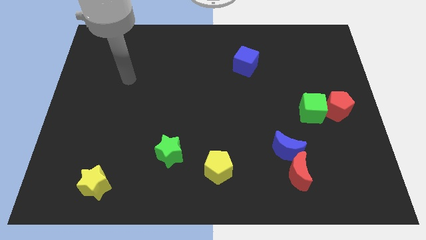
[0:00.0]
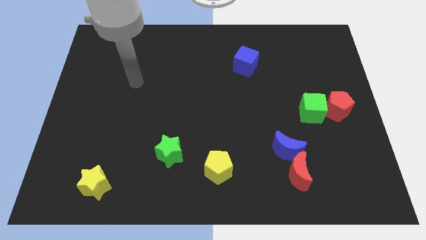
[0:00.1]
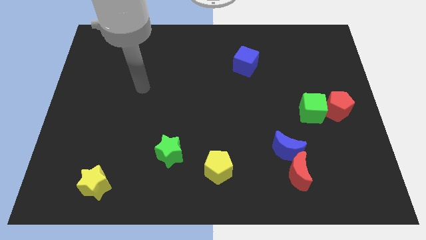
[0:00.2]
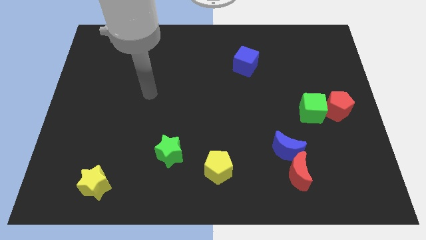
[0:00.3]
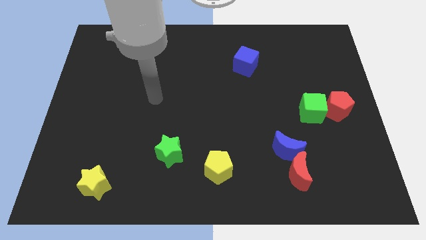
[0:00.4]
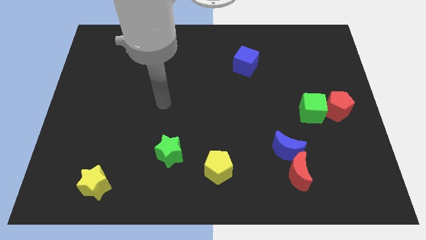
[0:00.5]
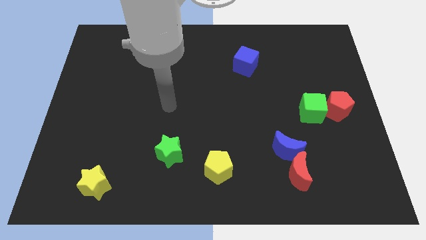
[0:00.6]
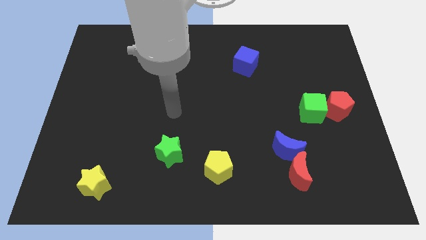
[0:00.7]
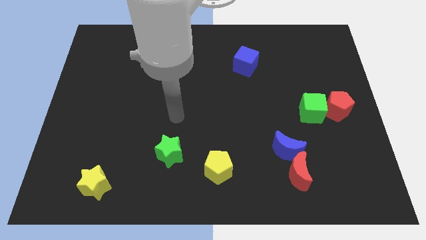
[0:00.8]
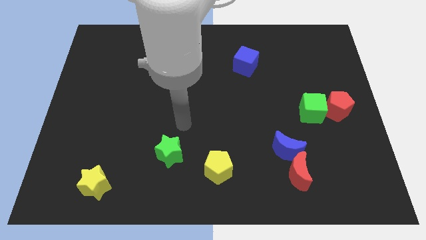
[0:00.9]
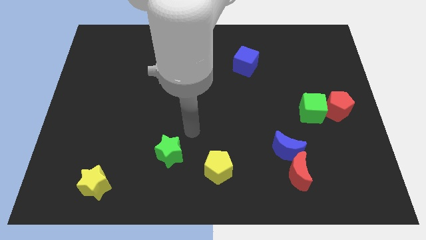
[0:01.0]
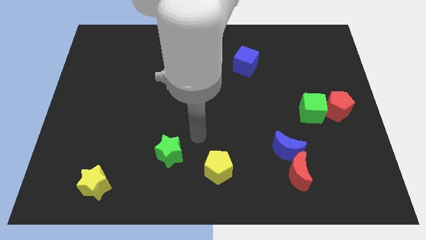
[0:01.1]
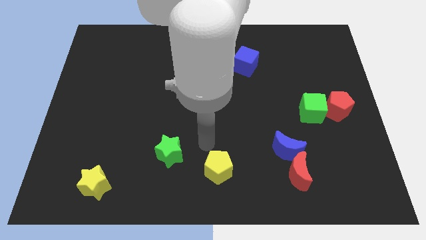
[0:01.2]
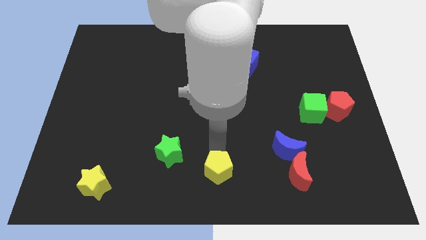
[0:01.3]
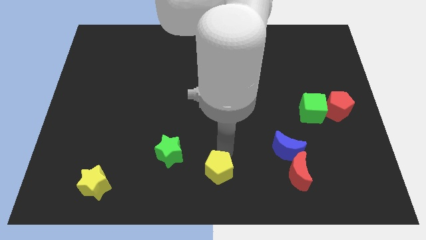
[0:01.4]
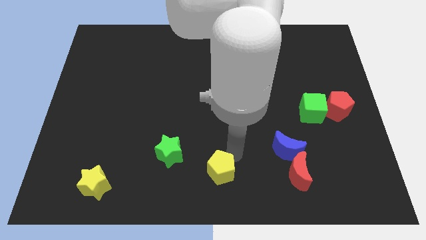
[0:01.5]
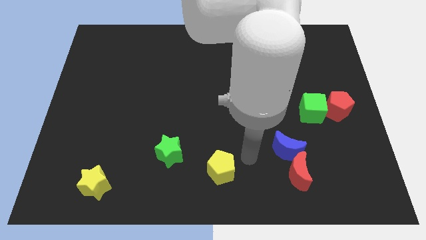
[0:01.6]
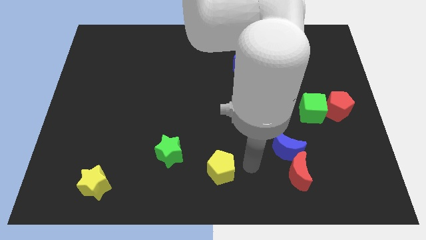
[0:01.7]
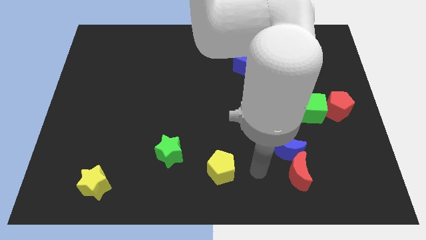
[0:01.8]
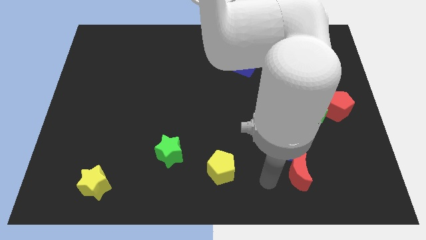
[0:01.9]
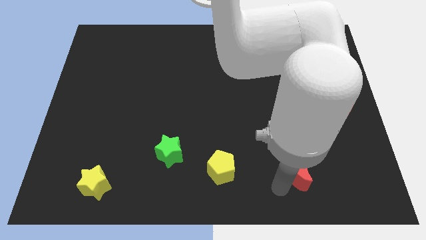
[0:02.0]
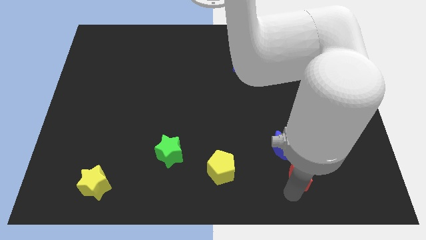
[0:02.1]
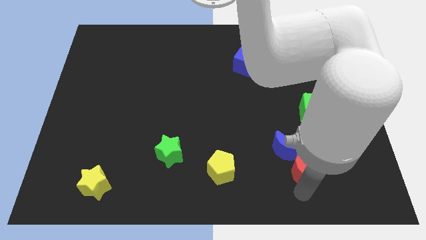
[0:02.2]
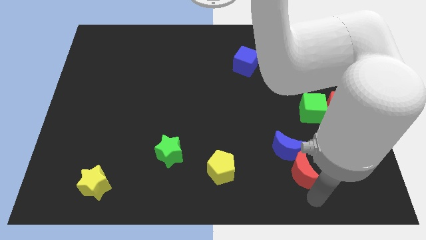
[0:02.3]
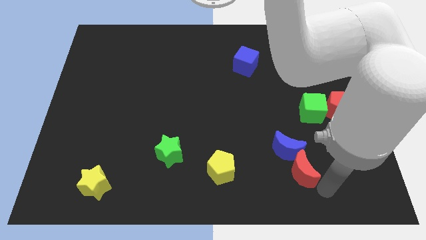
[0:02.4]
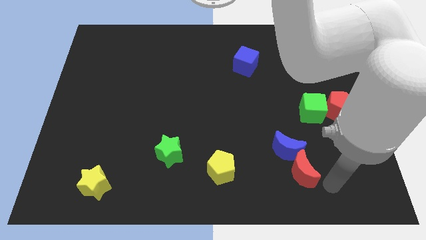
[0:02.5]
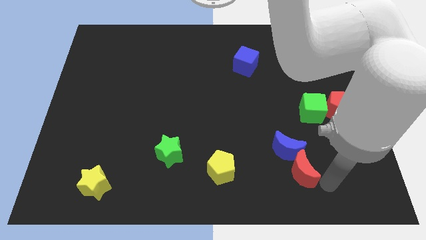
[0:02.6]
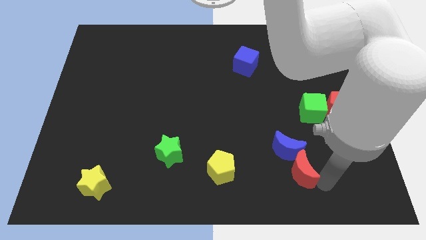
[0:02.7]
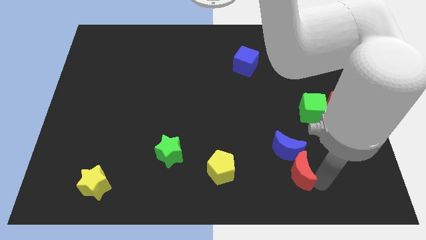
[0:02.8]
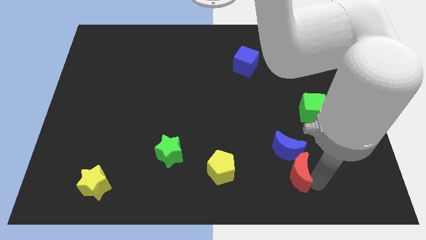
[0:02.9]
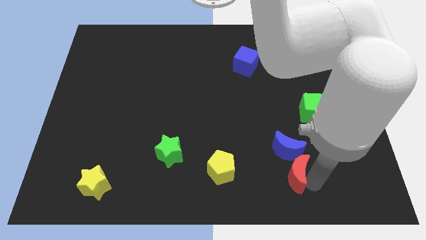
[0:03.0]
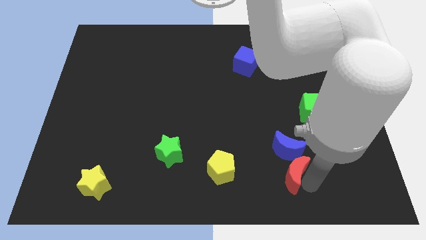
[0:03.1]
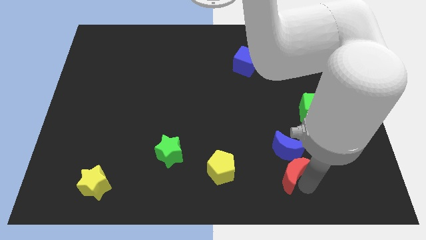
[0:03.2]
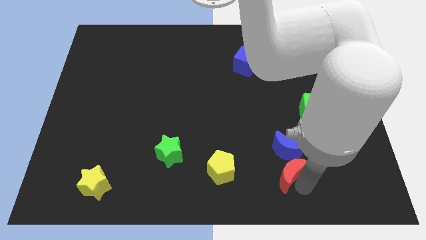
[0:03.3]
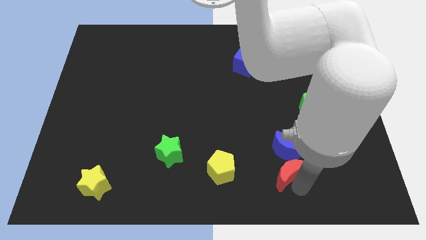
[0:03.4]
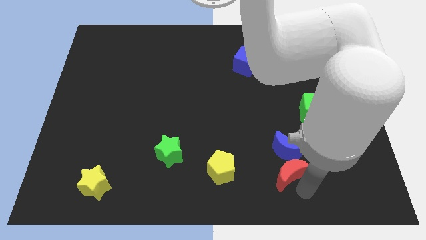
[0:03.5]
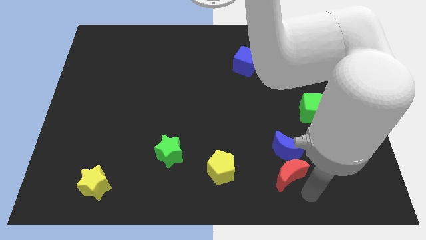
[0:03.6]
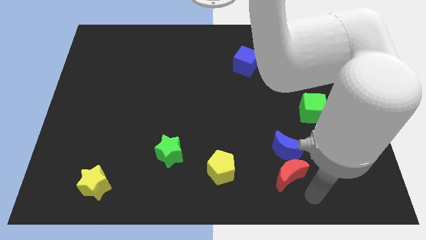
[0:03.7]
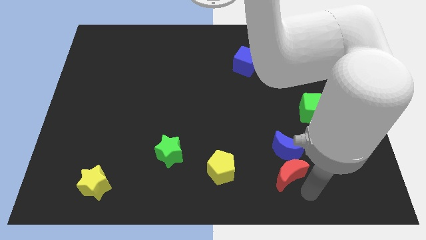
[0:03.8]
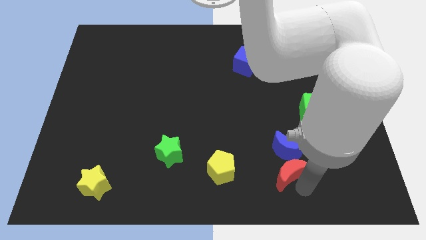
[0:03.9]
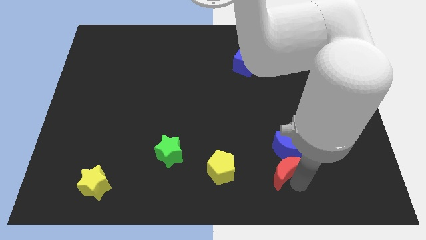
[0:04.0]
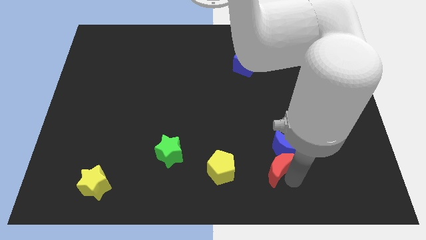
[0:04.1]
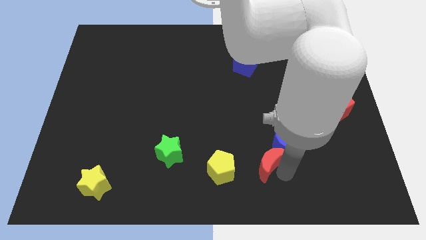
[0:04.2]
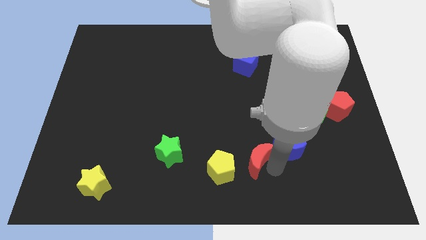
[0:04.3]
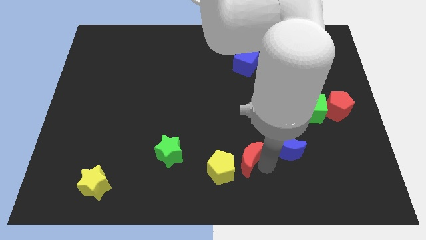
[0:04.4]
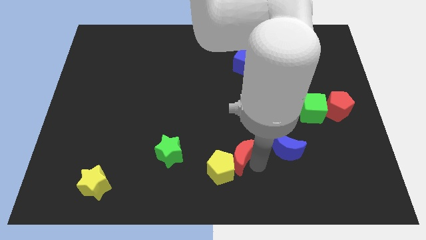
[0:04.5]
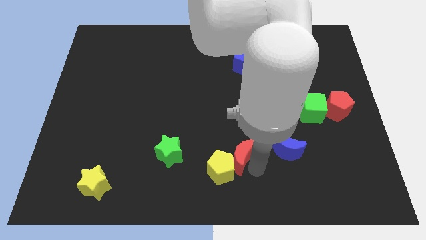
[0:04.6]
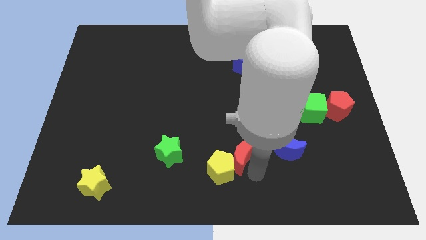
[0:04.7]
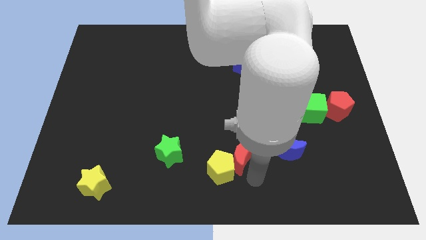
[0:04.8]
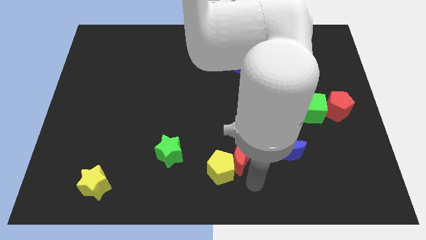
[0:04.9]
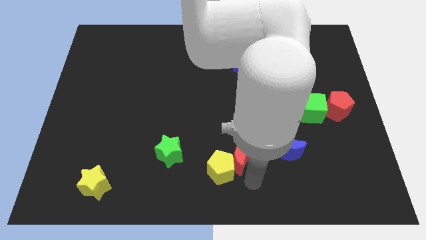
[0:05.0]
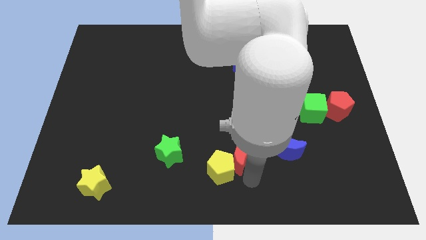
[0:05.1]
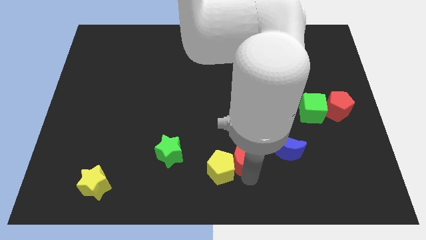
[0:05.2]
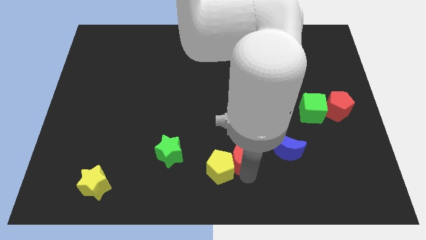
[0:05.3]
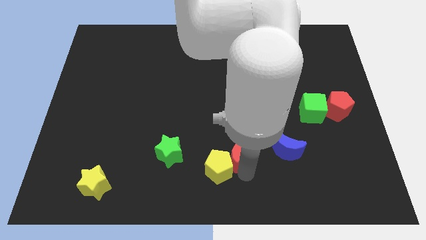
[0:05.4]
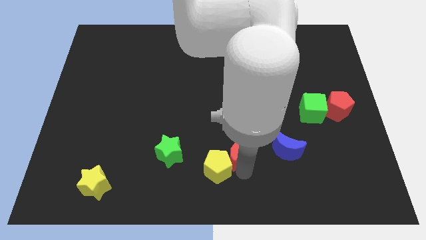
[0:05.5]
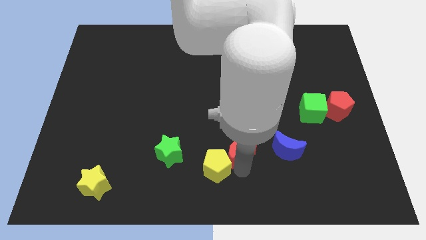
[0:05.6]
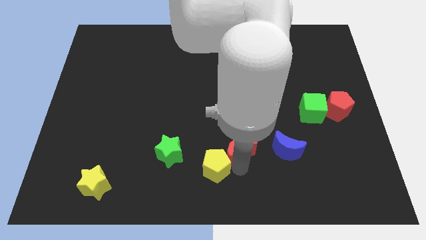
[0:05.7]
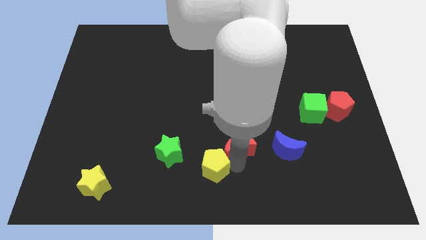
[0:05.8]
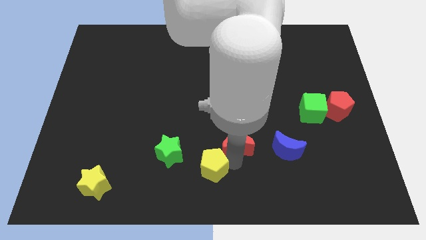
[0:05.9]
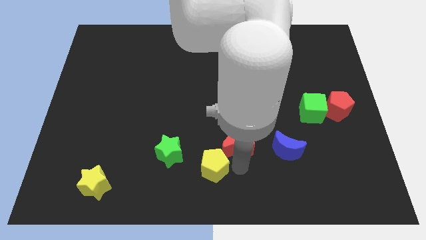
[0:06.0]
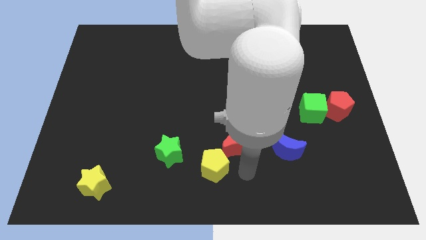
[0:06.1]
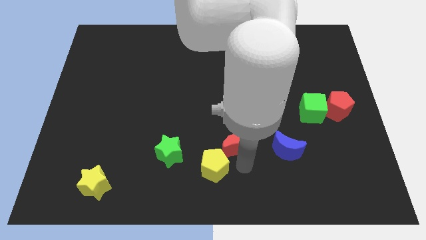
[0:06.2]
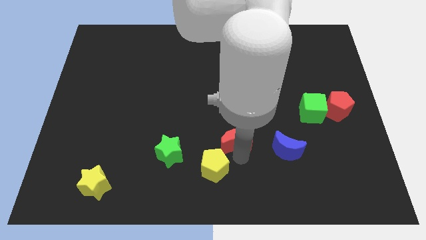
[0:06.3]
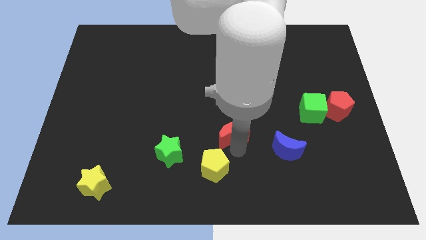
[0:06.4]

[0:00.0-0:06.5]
move the red moon to the middle
